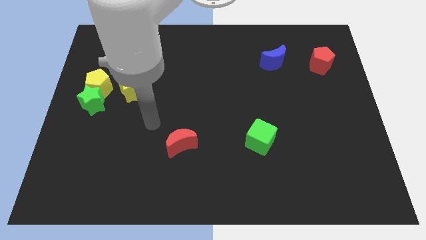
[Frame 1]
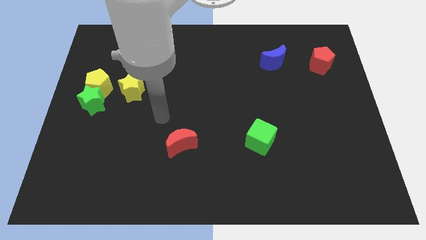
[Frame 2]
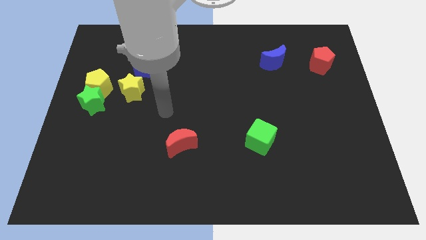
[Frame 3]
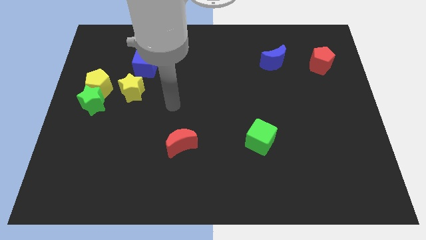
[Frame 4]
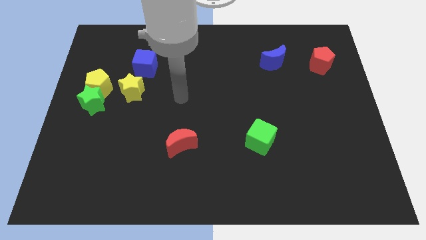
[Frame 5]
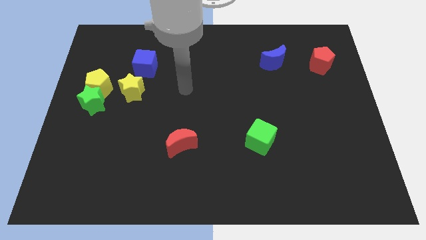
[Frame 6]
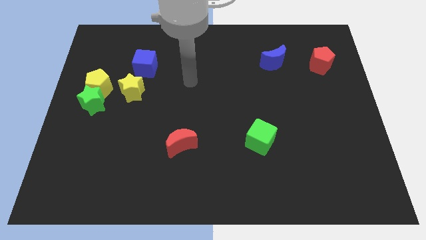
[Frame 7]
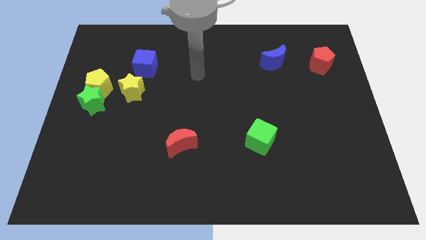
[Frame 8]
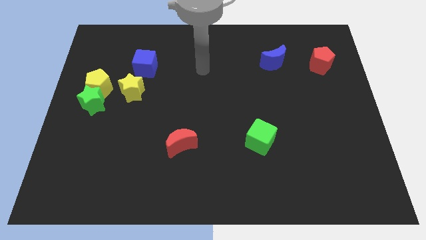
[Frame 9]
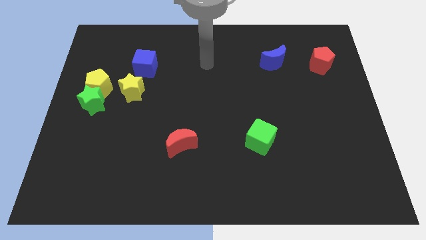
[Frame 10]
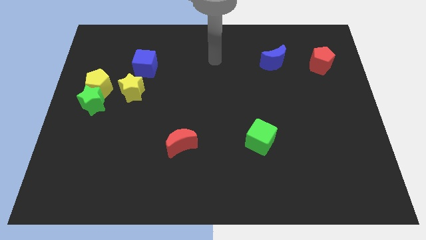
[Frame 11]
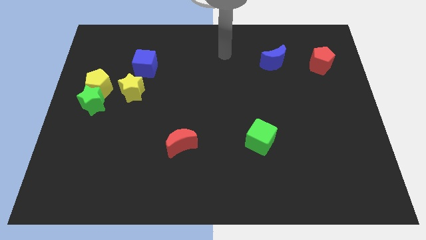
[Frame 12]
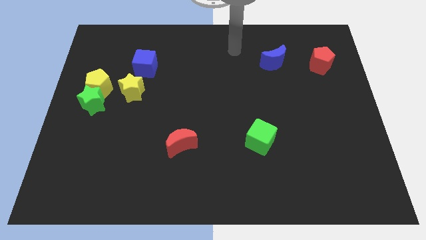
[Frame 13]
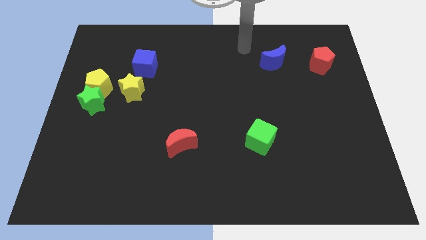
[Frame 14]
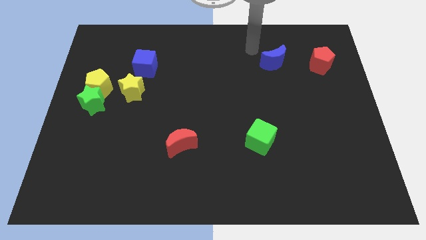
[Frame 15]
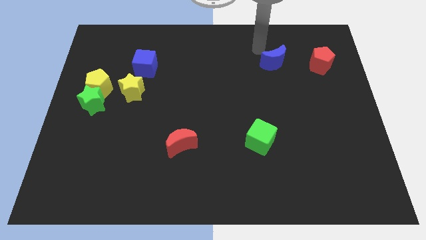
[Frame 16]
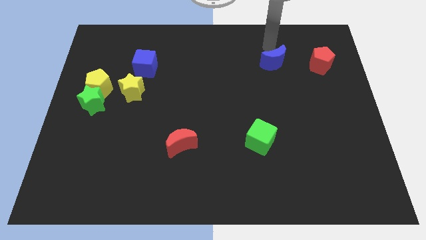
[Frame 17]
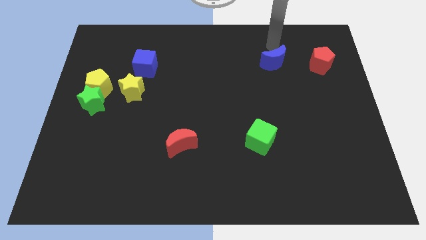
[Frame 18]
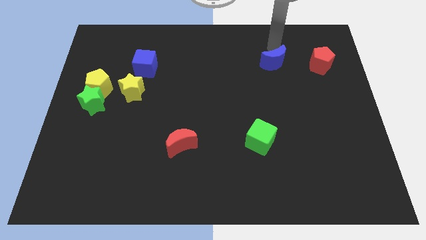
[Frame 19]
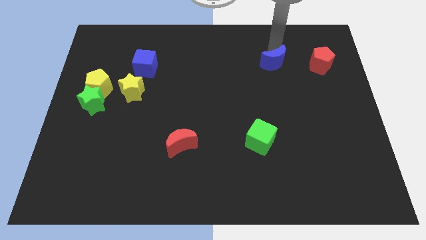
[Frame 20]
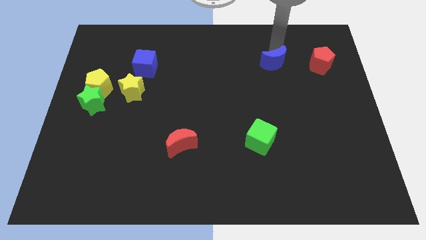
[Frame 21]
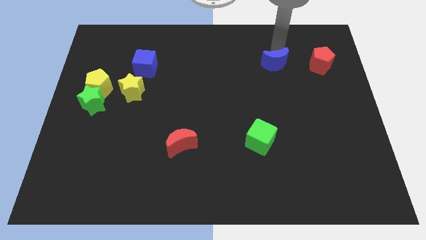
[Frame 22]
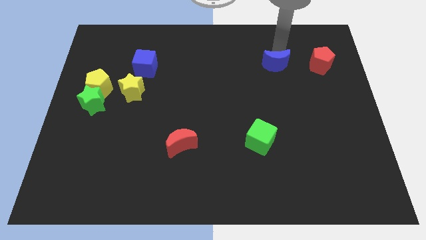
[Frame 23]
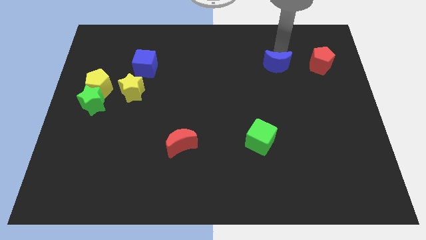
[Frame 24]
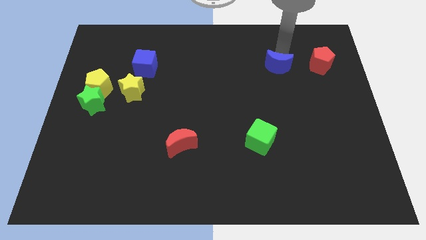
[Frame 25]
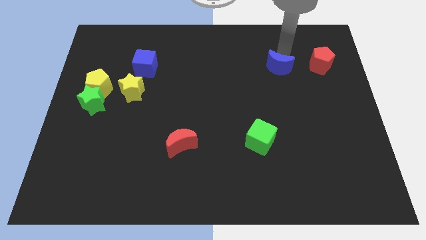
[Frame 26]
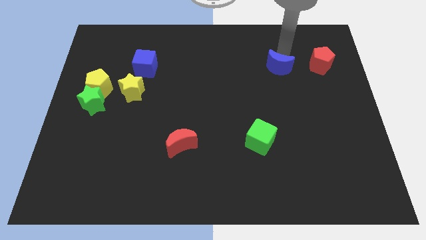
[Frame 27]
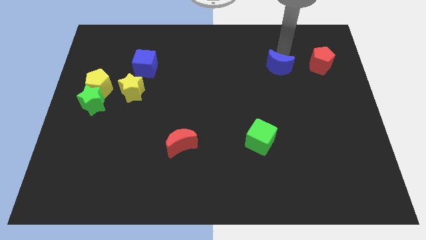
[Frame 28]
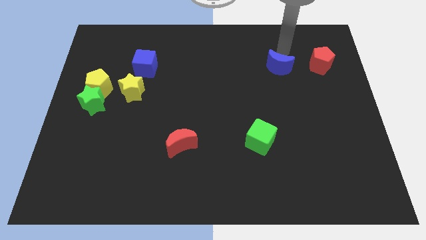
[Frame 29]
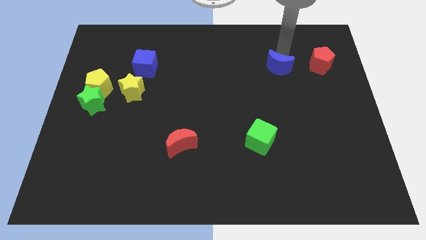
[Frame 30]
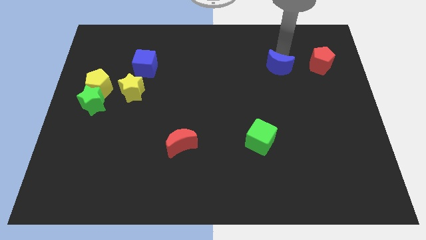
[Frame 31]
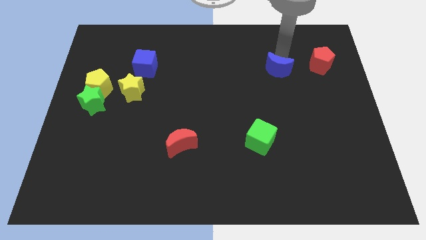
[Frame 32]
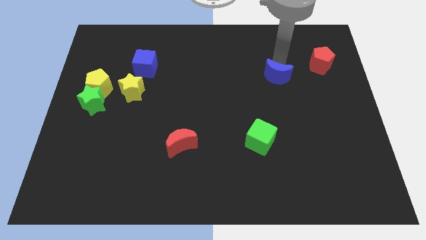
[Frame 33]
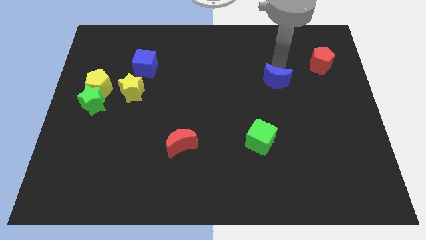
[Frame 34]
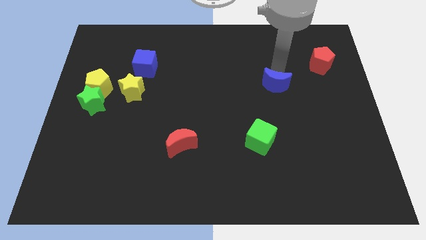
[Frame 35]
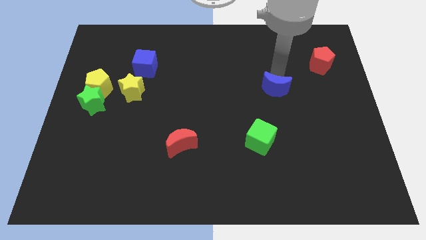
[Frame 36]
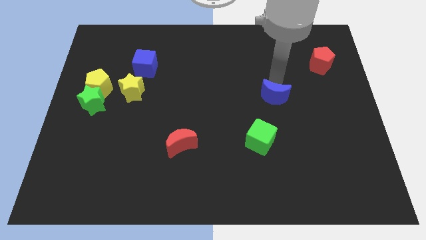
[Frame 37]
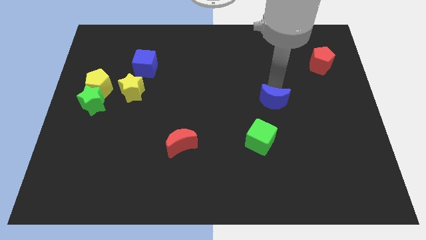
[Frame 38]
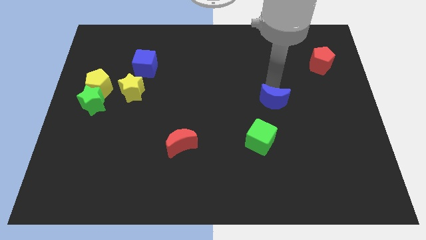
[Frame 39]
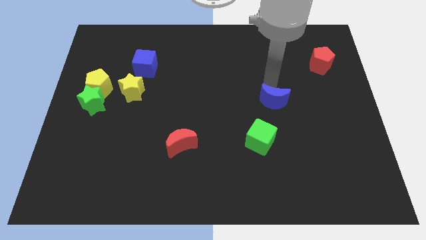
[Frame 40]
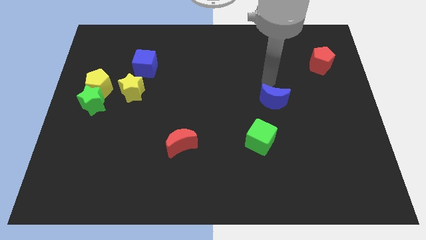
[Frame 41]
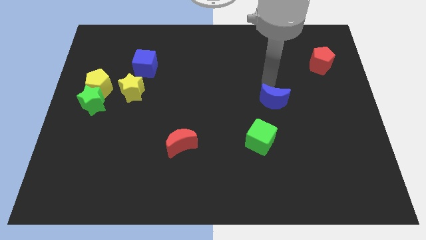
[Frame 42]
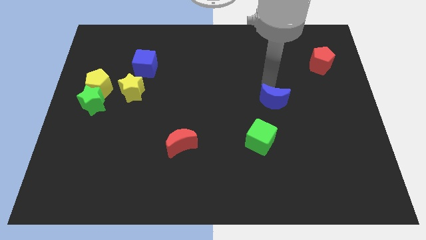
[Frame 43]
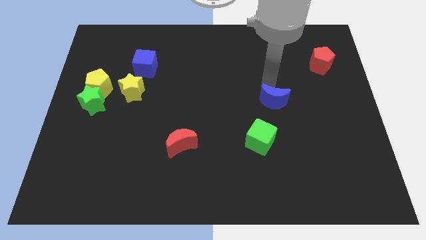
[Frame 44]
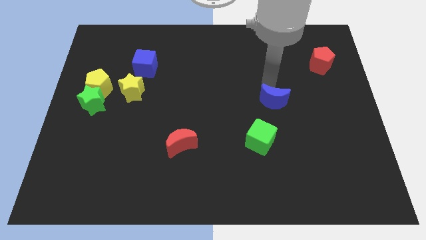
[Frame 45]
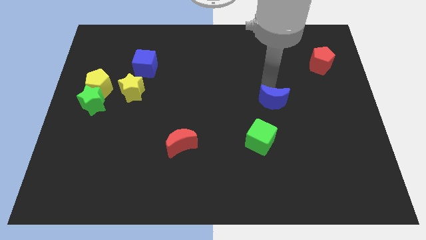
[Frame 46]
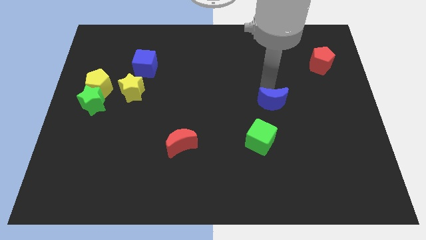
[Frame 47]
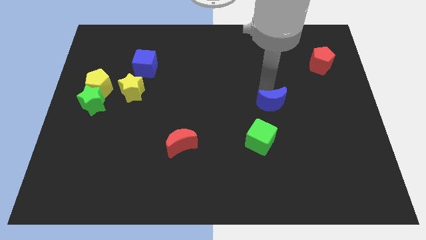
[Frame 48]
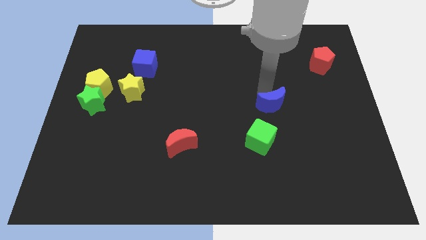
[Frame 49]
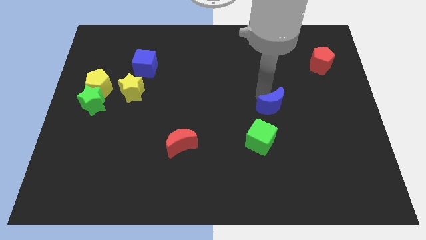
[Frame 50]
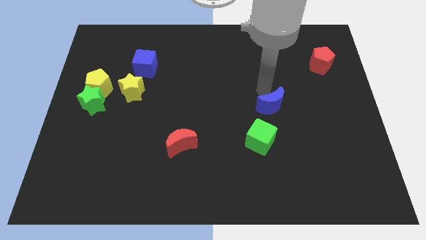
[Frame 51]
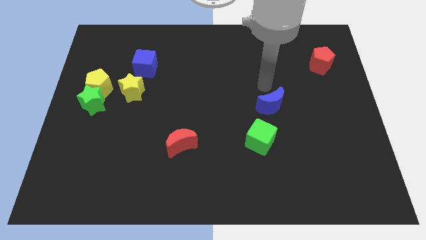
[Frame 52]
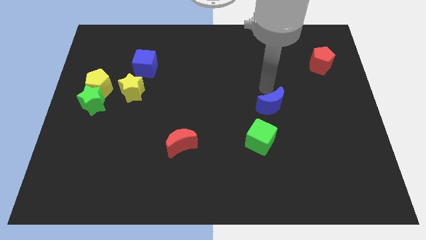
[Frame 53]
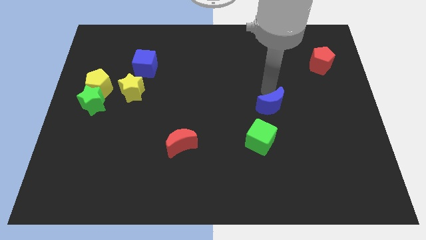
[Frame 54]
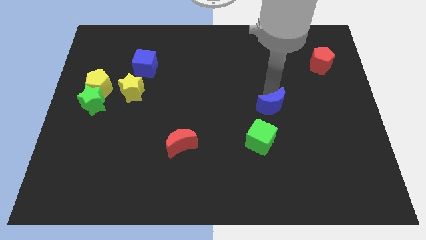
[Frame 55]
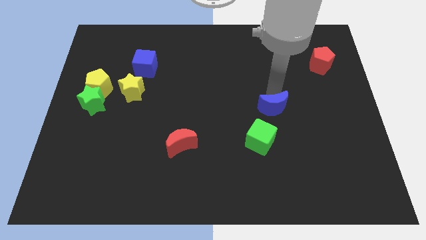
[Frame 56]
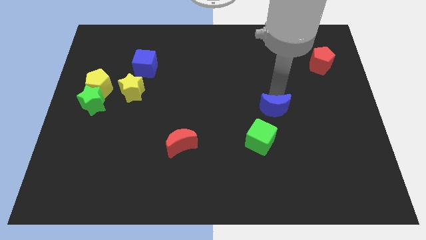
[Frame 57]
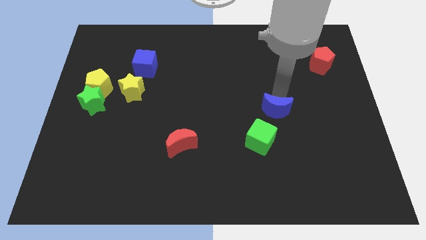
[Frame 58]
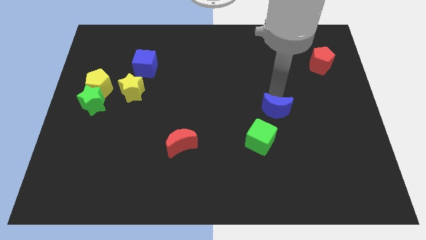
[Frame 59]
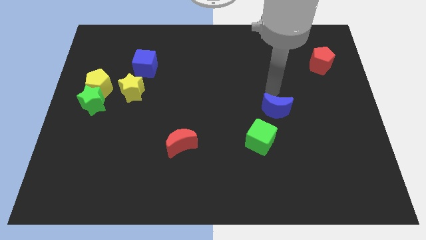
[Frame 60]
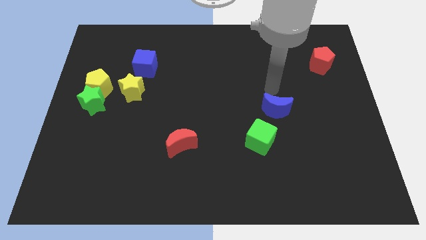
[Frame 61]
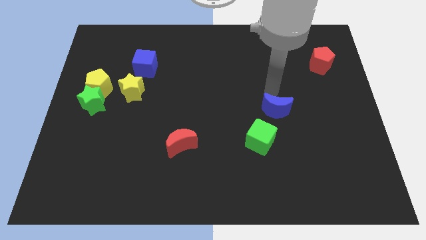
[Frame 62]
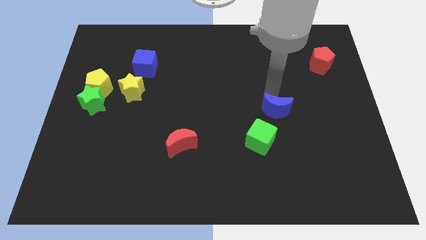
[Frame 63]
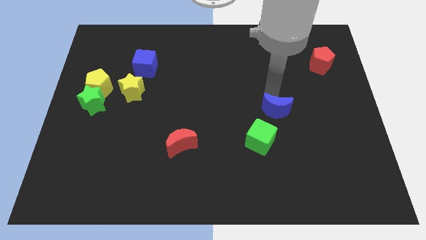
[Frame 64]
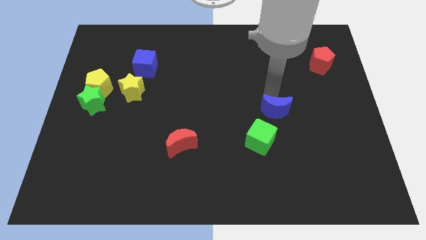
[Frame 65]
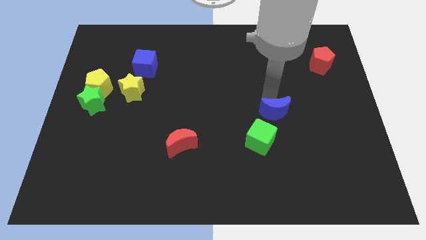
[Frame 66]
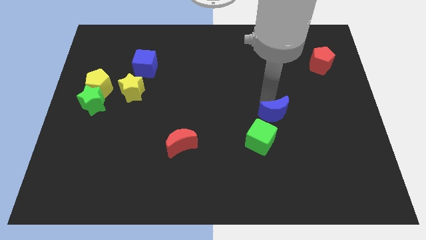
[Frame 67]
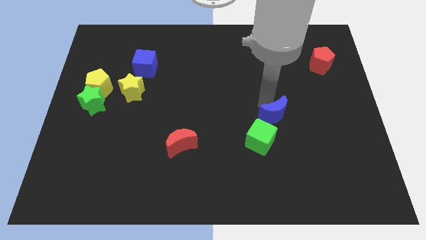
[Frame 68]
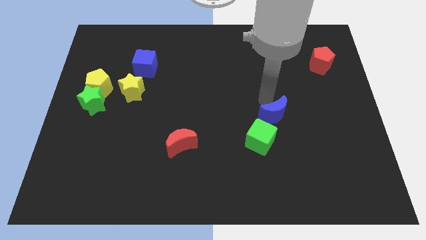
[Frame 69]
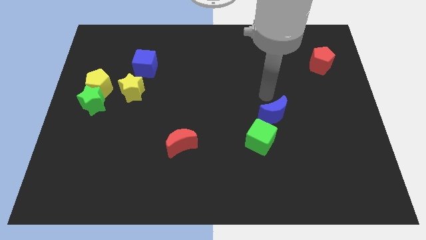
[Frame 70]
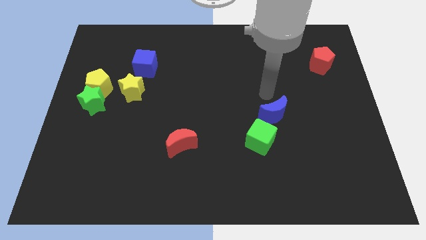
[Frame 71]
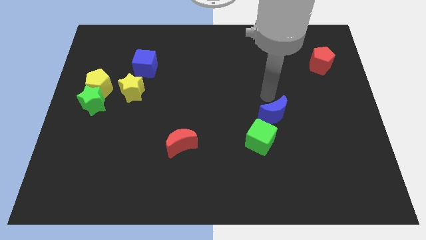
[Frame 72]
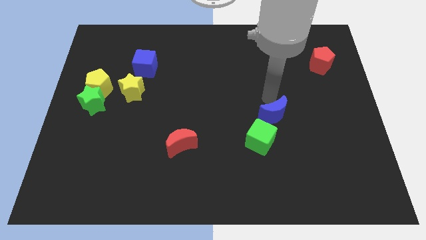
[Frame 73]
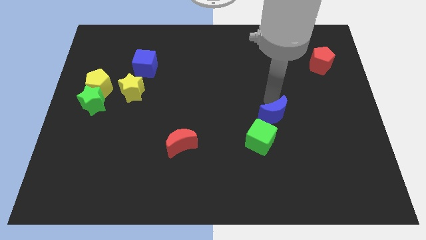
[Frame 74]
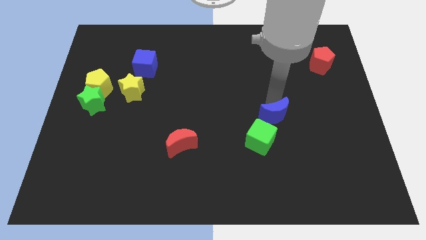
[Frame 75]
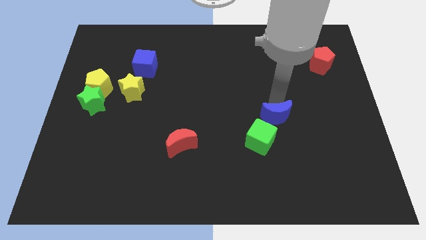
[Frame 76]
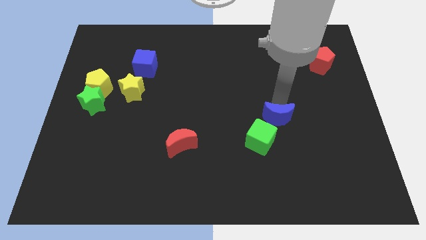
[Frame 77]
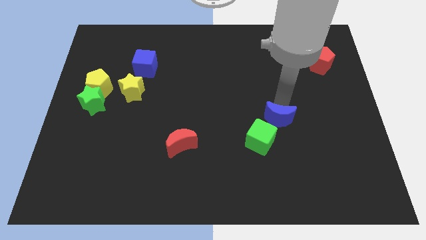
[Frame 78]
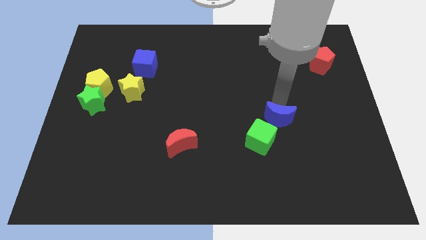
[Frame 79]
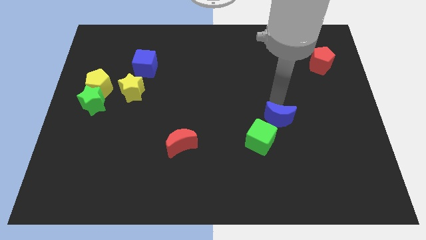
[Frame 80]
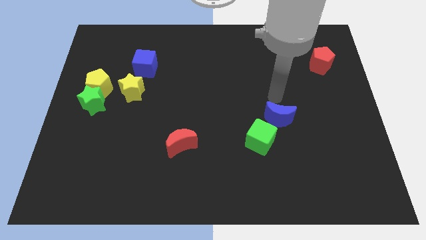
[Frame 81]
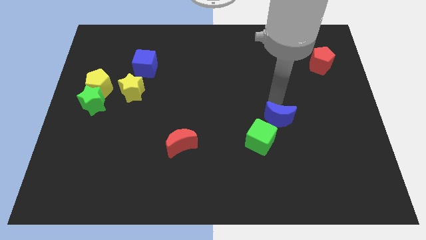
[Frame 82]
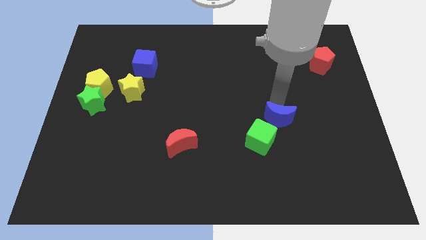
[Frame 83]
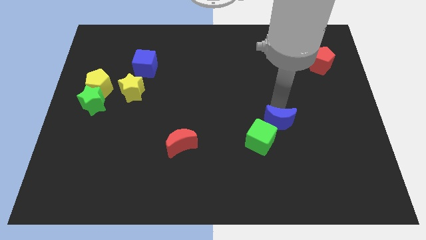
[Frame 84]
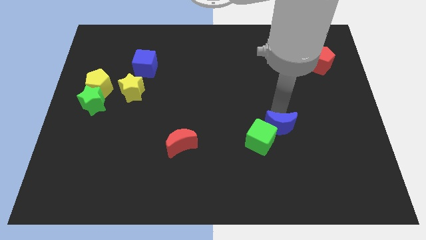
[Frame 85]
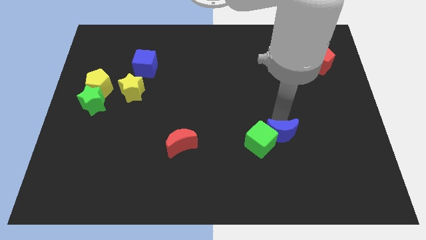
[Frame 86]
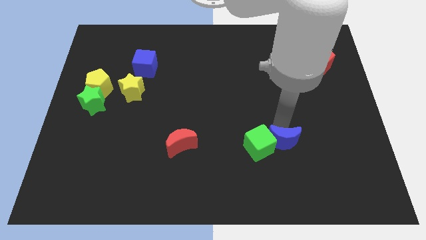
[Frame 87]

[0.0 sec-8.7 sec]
push the blue moon to the bottom right side of the green cube
